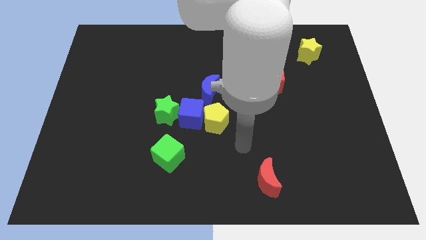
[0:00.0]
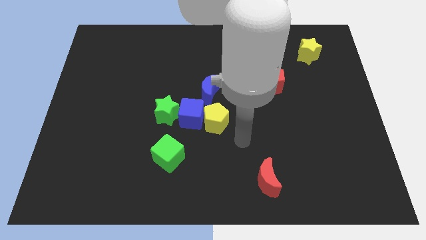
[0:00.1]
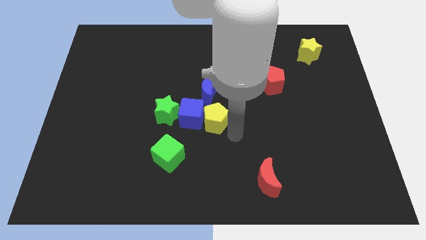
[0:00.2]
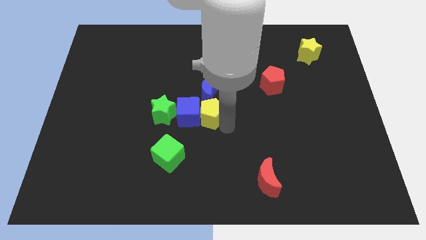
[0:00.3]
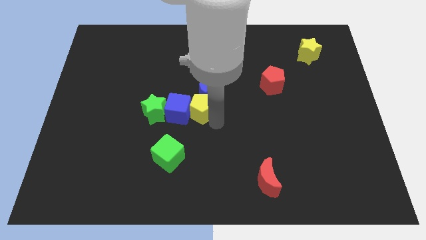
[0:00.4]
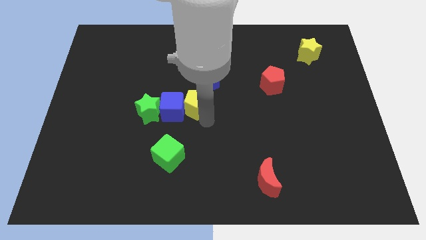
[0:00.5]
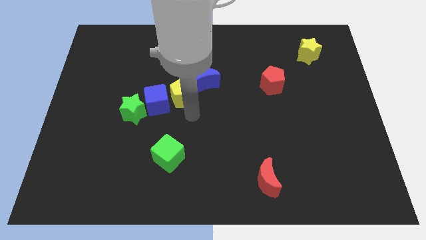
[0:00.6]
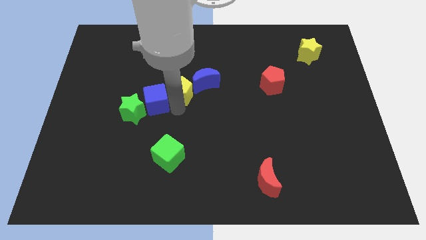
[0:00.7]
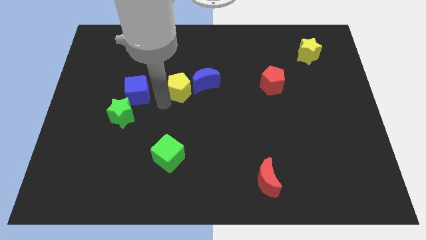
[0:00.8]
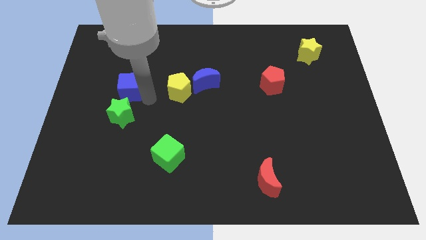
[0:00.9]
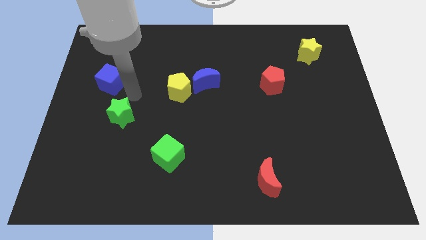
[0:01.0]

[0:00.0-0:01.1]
pull the green star apart from the blue cube

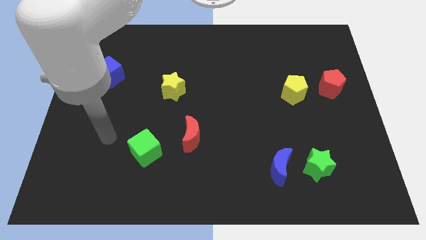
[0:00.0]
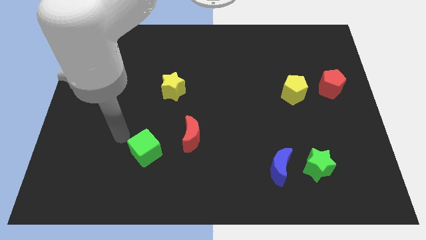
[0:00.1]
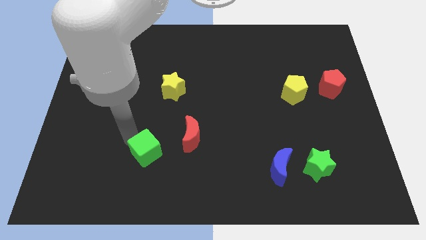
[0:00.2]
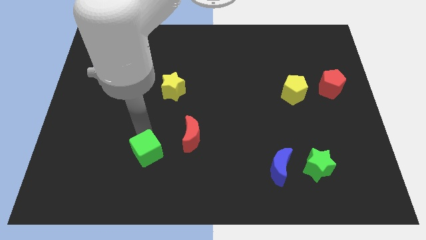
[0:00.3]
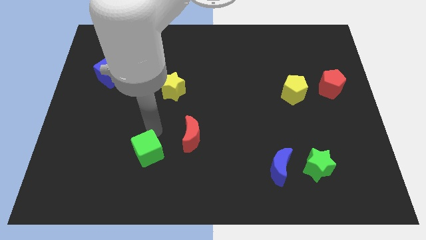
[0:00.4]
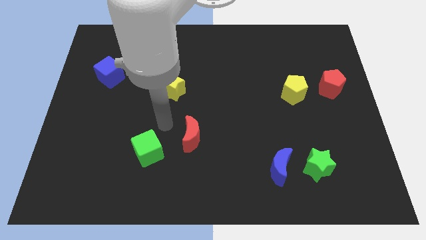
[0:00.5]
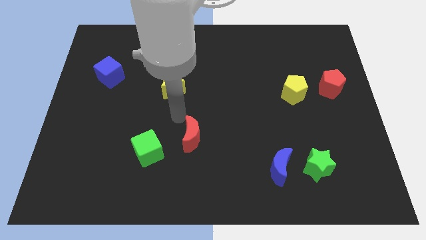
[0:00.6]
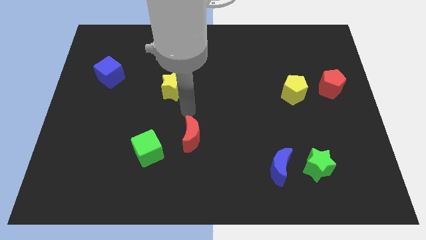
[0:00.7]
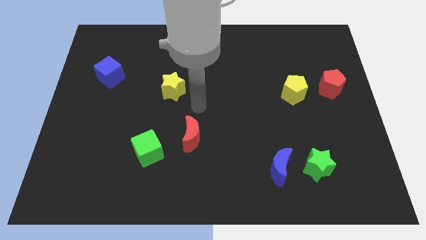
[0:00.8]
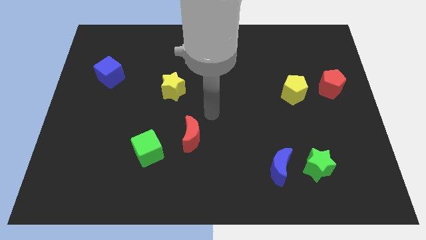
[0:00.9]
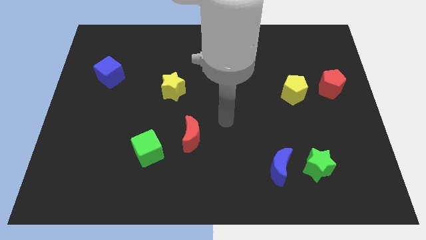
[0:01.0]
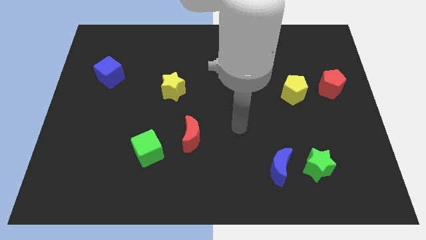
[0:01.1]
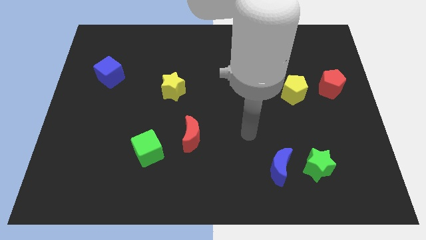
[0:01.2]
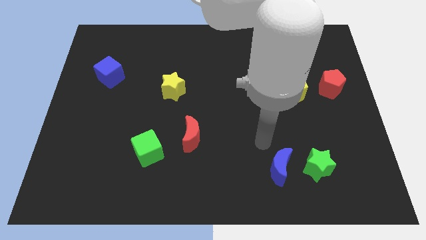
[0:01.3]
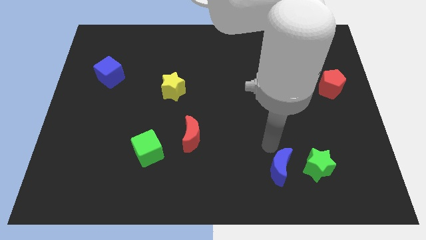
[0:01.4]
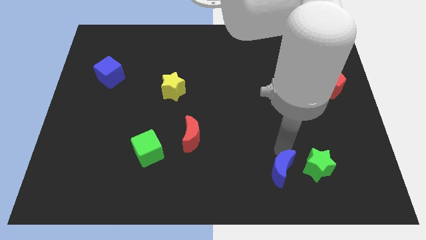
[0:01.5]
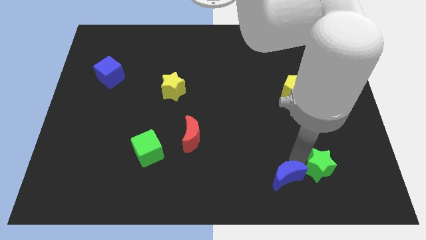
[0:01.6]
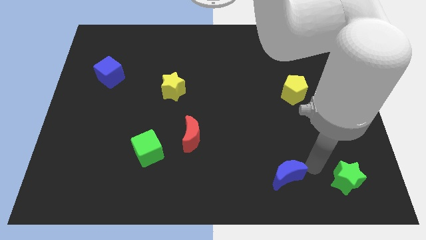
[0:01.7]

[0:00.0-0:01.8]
pull the blue moon apart from the green star

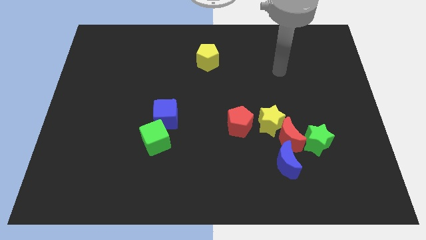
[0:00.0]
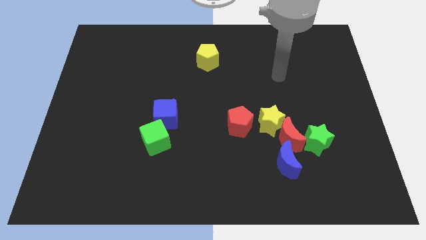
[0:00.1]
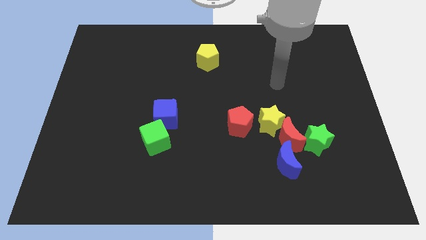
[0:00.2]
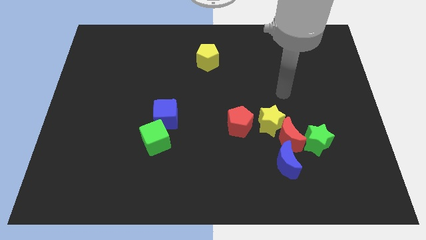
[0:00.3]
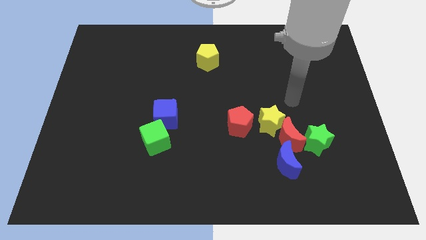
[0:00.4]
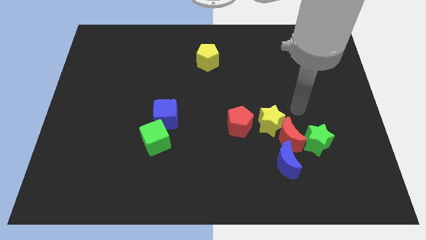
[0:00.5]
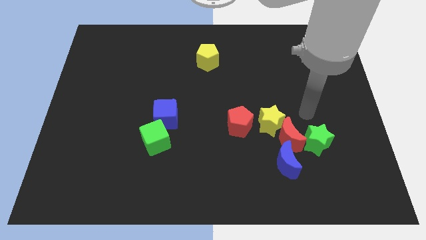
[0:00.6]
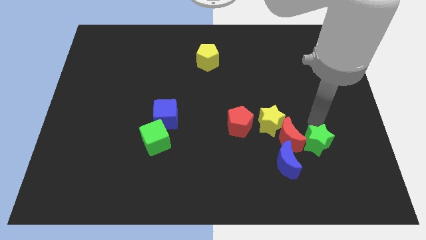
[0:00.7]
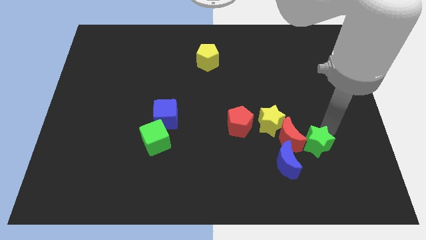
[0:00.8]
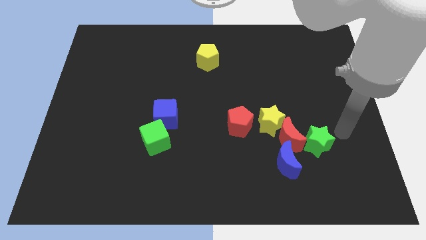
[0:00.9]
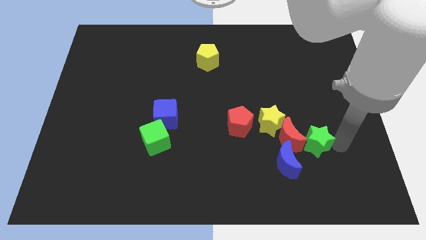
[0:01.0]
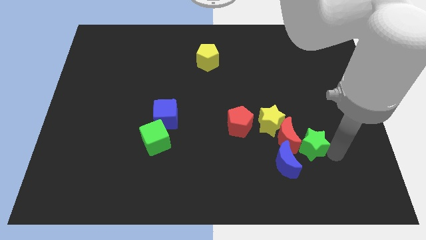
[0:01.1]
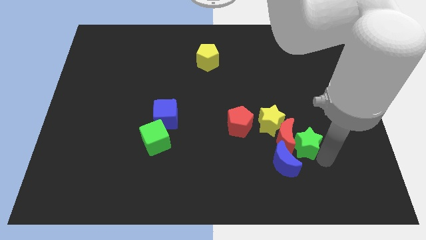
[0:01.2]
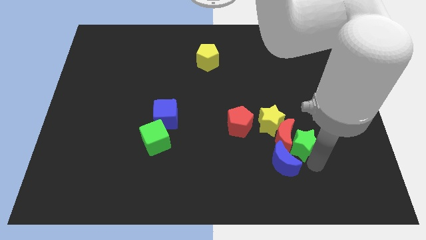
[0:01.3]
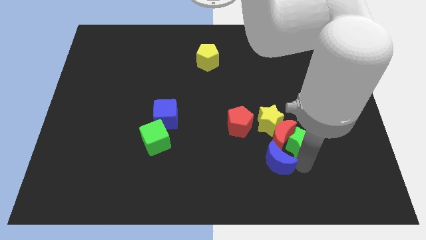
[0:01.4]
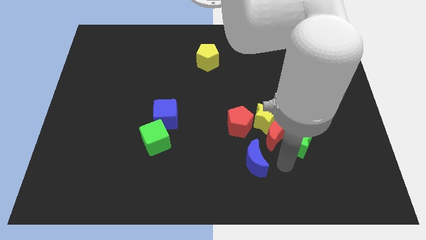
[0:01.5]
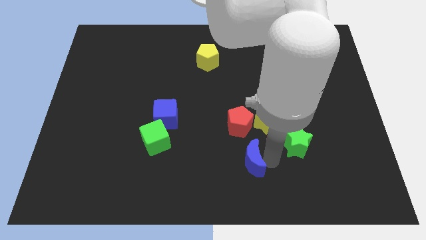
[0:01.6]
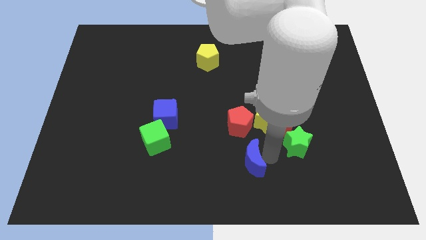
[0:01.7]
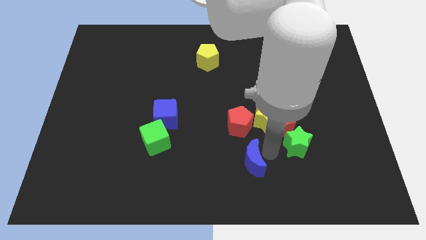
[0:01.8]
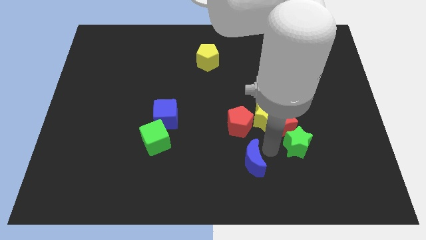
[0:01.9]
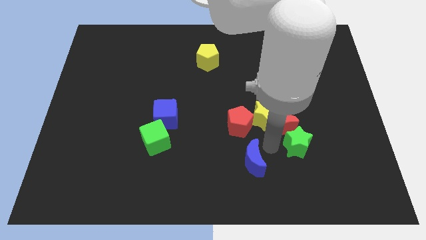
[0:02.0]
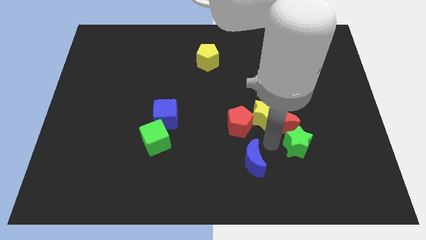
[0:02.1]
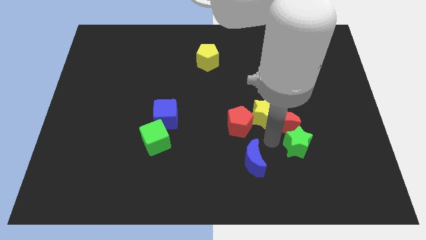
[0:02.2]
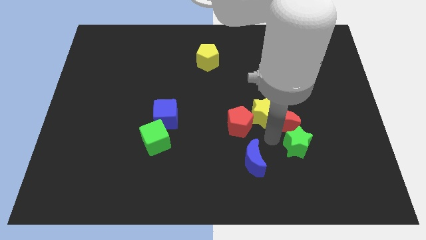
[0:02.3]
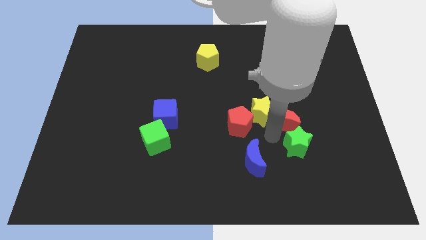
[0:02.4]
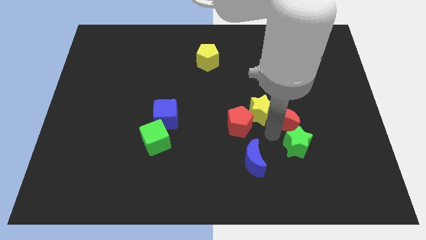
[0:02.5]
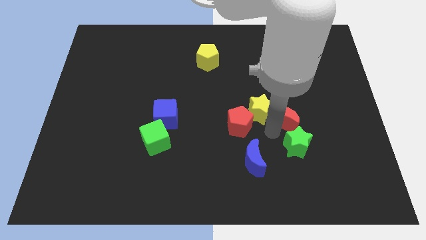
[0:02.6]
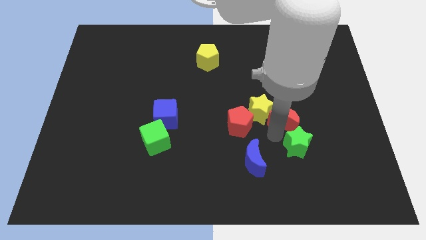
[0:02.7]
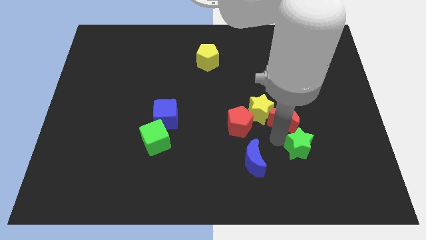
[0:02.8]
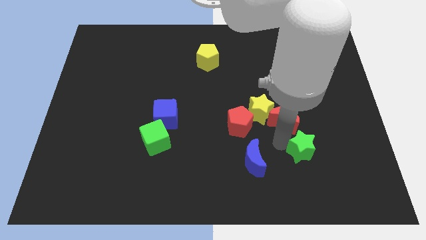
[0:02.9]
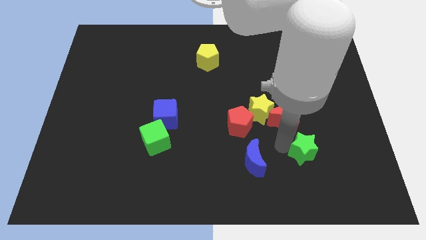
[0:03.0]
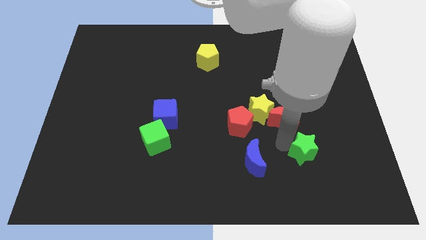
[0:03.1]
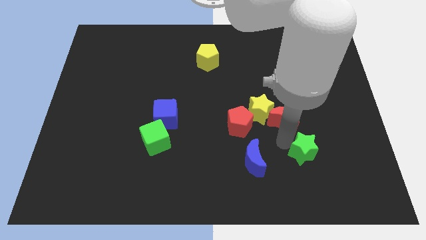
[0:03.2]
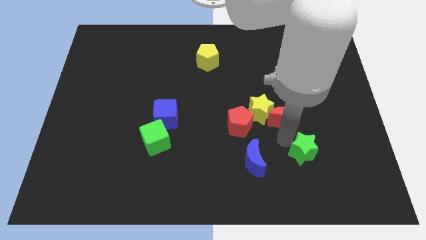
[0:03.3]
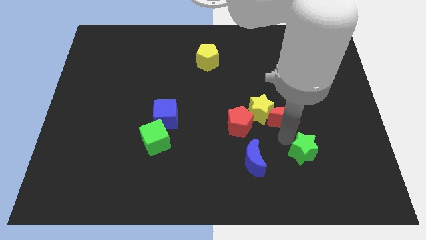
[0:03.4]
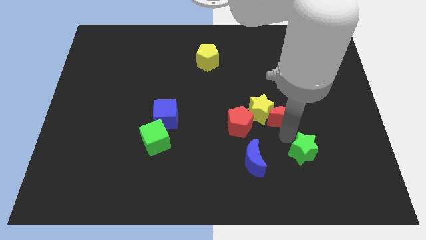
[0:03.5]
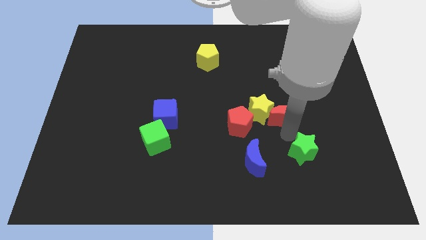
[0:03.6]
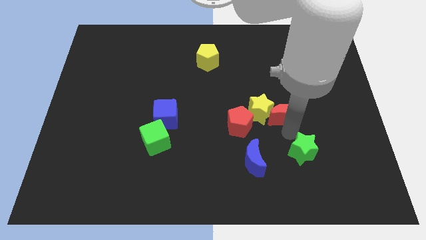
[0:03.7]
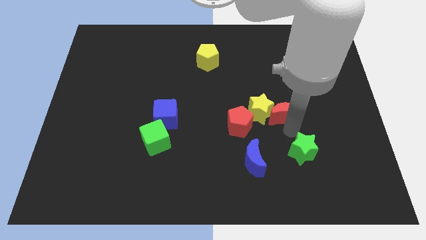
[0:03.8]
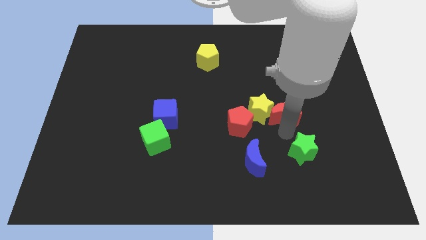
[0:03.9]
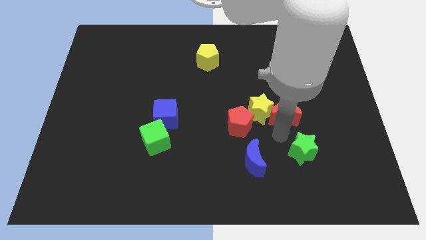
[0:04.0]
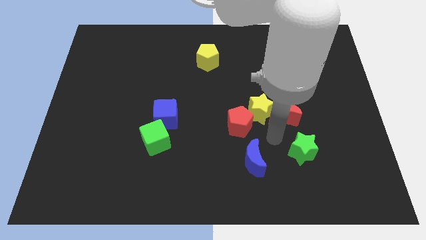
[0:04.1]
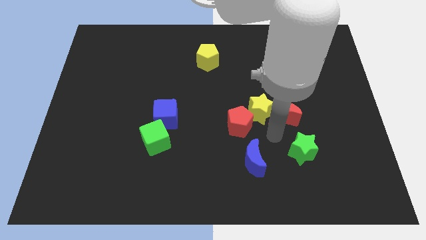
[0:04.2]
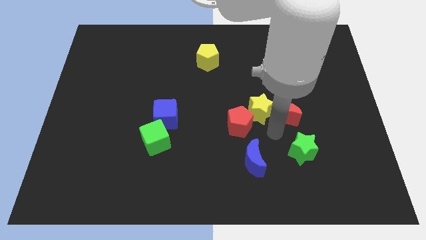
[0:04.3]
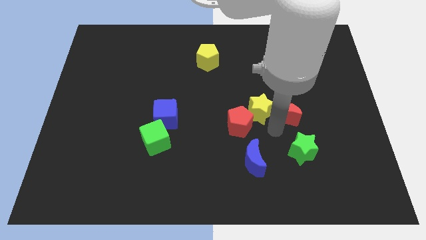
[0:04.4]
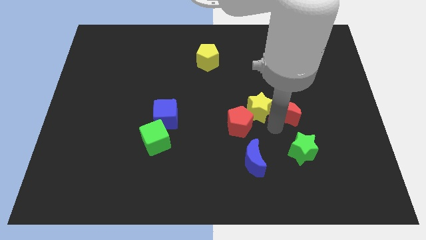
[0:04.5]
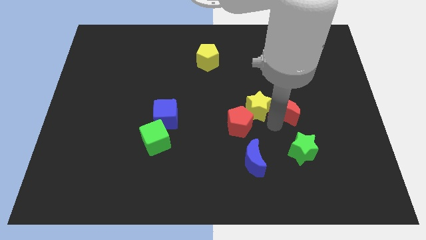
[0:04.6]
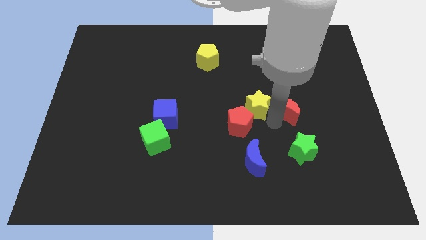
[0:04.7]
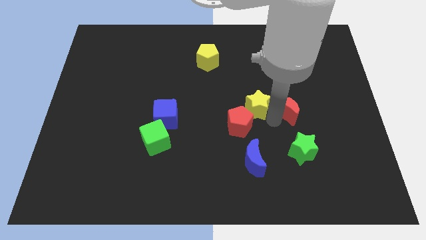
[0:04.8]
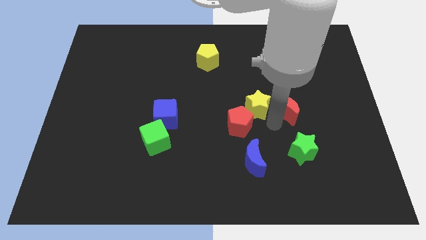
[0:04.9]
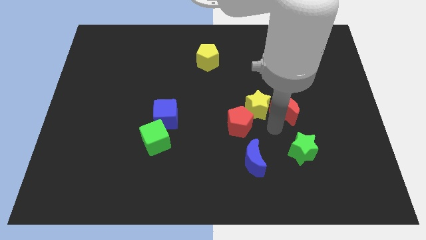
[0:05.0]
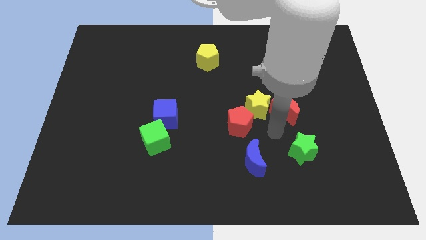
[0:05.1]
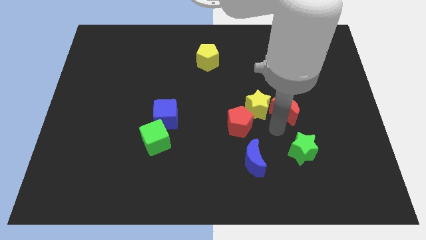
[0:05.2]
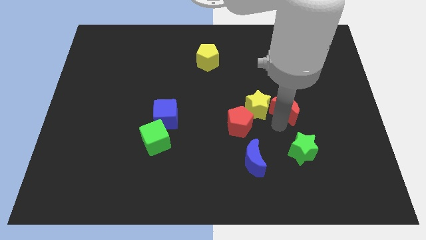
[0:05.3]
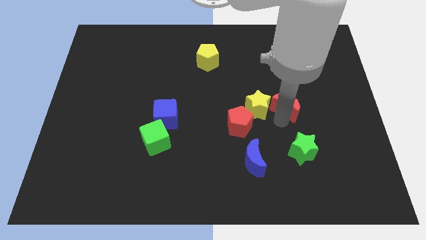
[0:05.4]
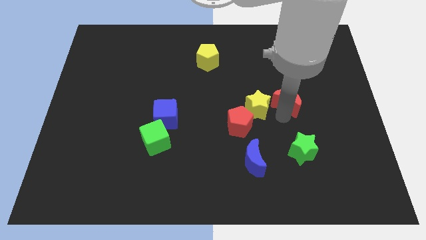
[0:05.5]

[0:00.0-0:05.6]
move the red moon away from the yellow star, green star, and blue moon

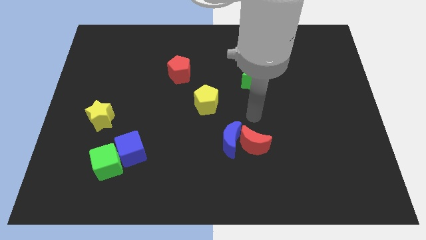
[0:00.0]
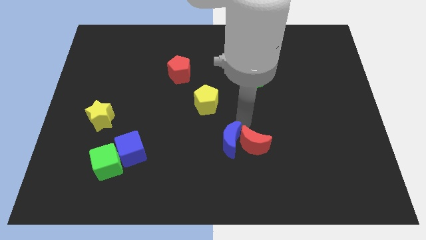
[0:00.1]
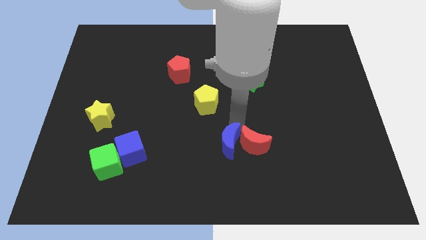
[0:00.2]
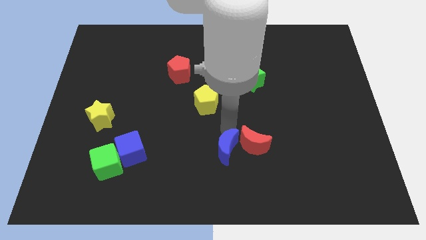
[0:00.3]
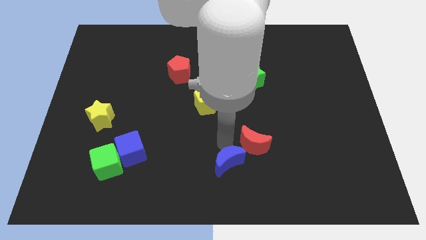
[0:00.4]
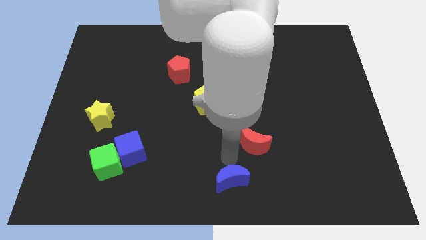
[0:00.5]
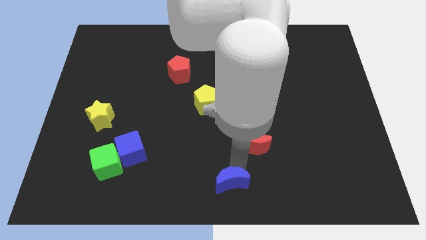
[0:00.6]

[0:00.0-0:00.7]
separate the red moon from the blue moon

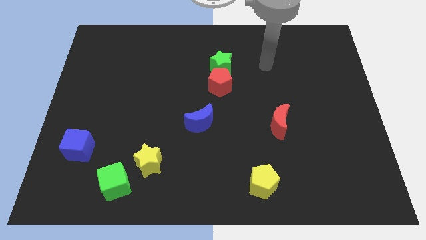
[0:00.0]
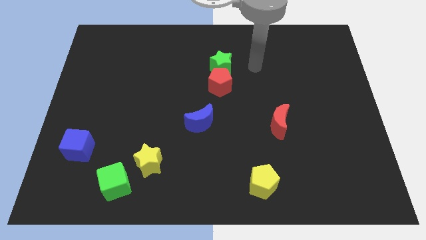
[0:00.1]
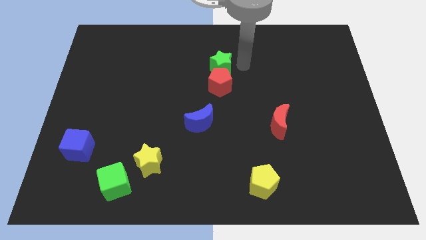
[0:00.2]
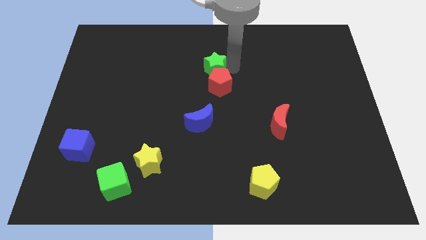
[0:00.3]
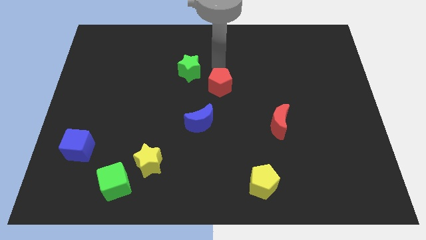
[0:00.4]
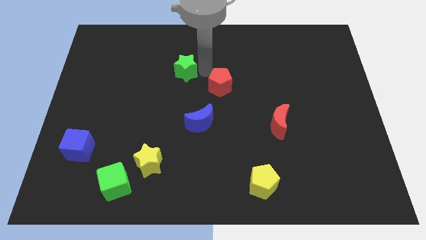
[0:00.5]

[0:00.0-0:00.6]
pull the red pentagon apart from the green star
